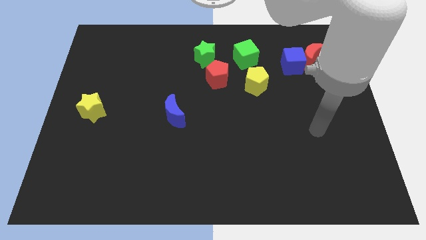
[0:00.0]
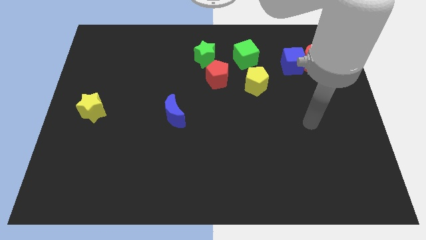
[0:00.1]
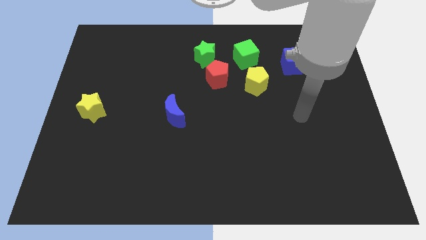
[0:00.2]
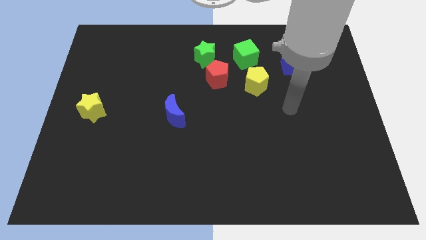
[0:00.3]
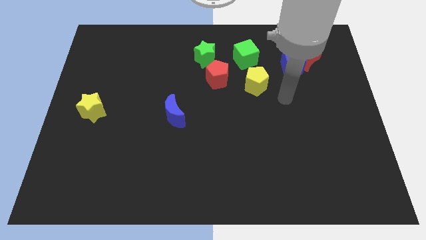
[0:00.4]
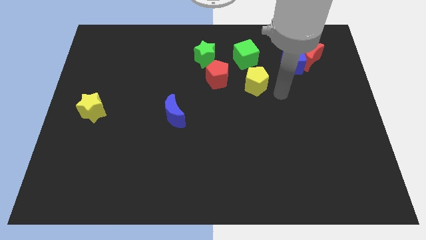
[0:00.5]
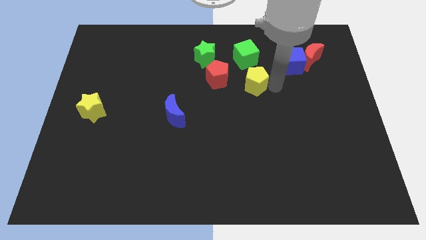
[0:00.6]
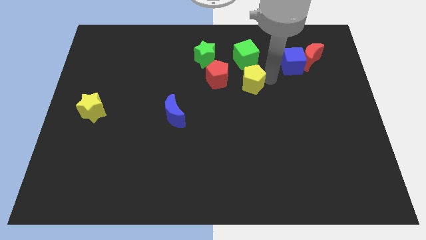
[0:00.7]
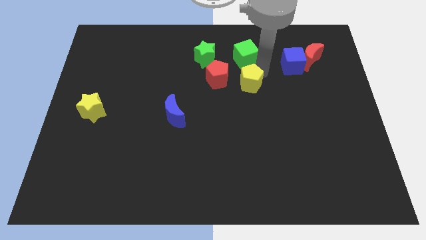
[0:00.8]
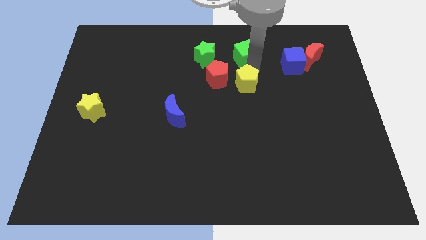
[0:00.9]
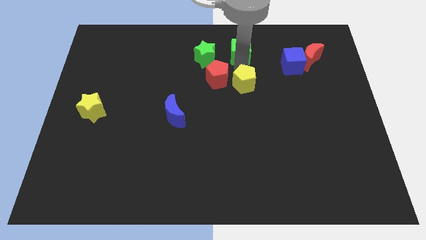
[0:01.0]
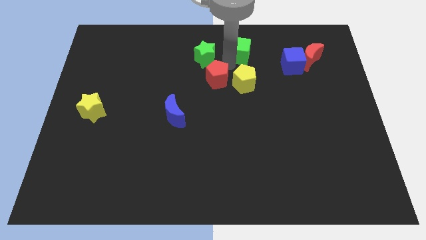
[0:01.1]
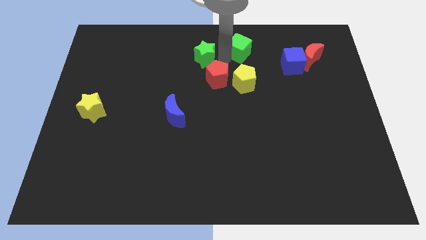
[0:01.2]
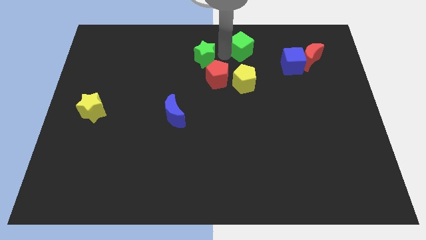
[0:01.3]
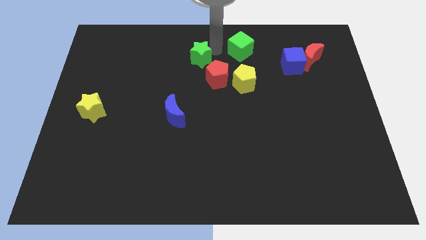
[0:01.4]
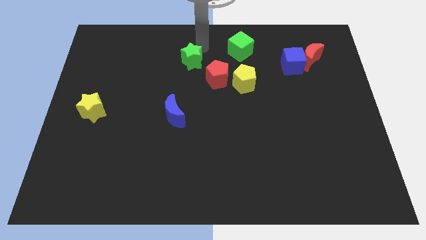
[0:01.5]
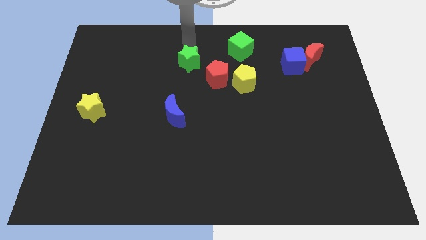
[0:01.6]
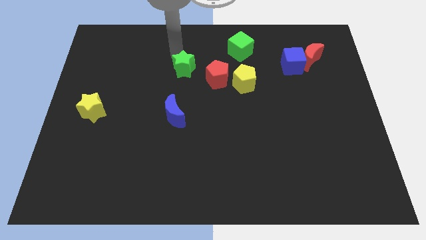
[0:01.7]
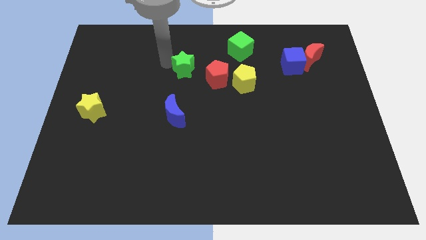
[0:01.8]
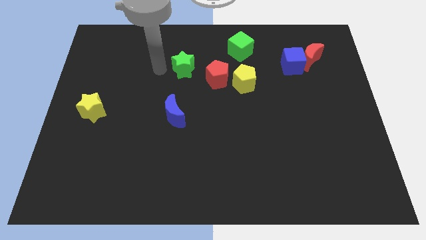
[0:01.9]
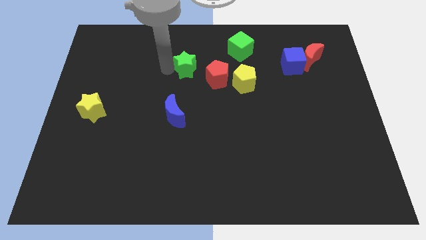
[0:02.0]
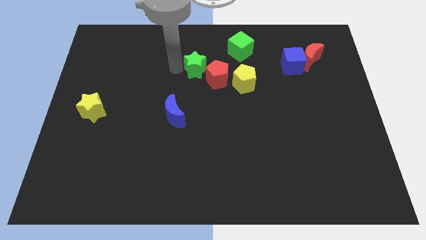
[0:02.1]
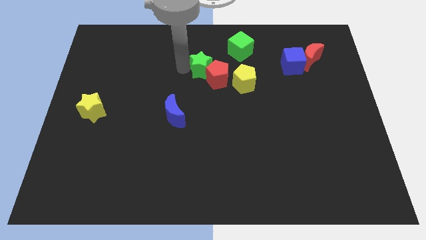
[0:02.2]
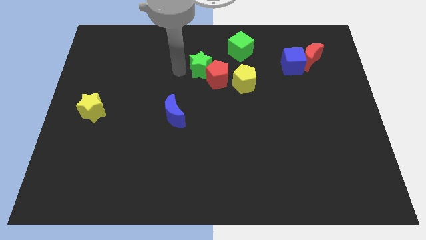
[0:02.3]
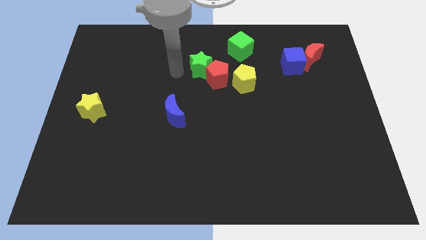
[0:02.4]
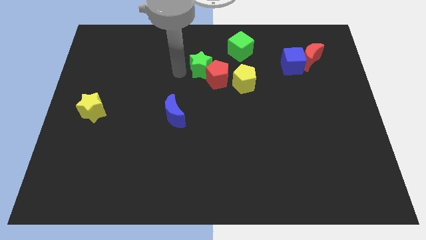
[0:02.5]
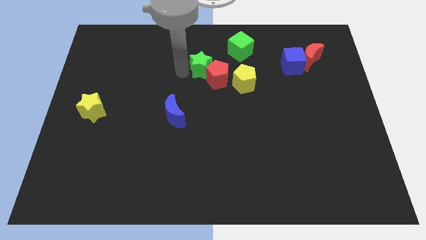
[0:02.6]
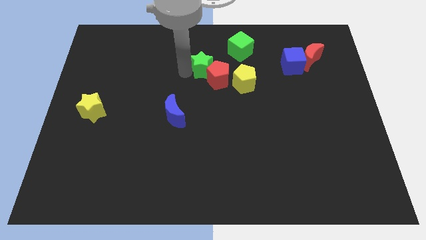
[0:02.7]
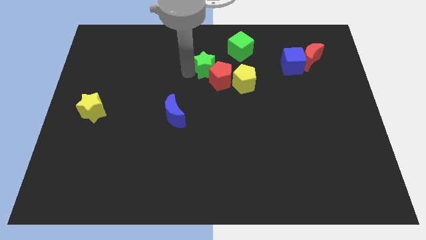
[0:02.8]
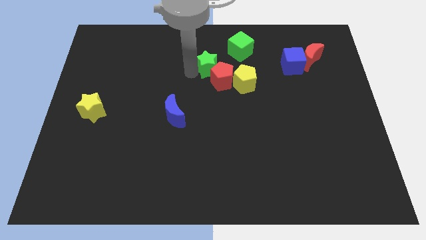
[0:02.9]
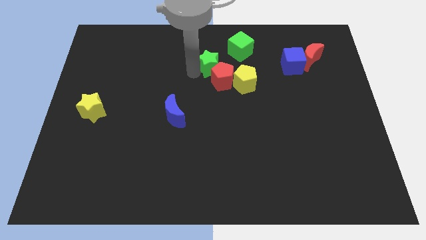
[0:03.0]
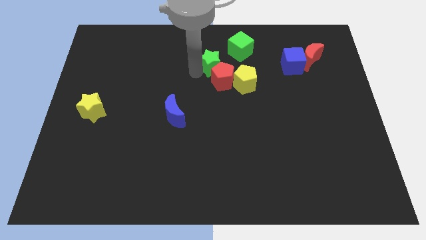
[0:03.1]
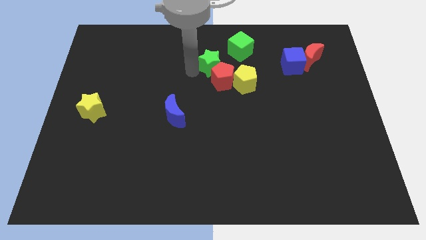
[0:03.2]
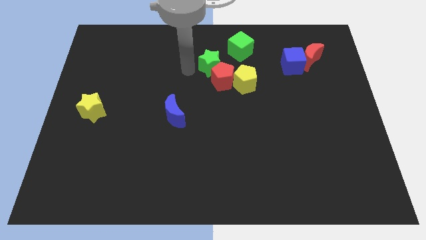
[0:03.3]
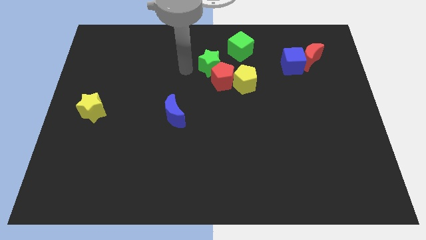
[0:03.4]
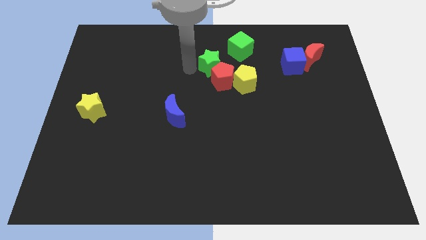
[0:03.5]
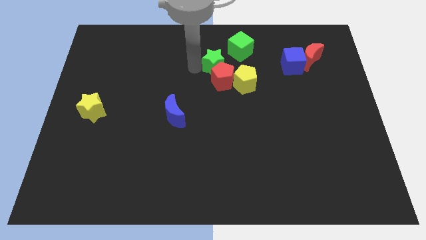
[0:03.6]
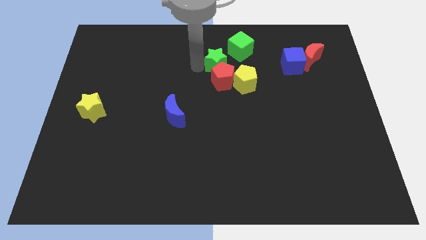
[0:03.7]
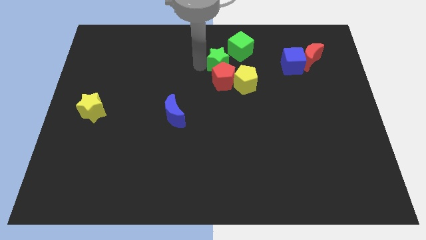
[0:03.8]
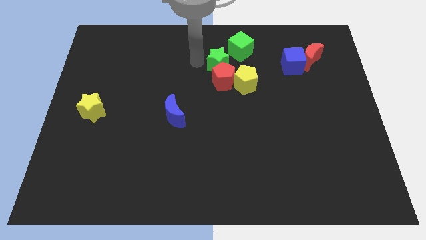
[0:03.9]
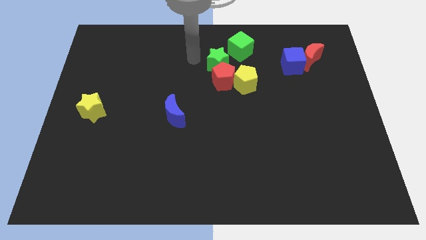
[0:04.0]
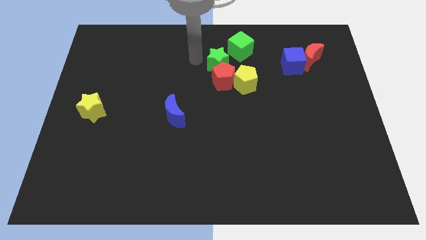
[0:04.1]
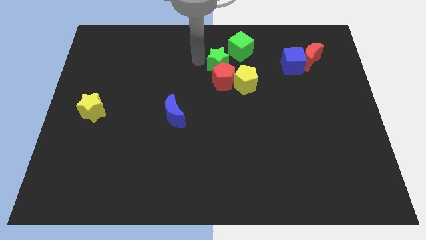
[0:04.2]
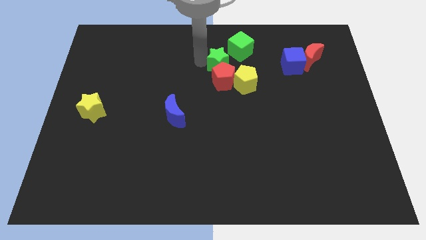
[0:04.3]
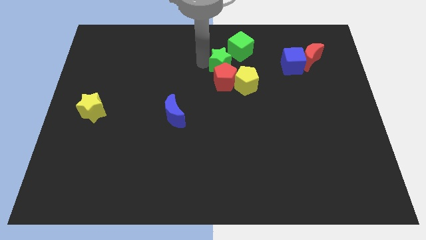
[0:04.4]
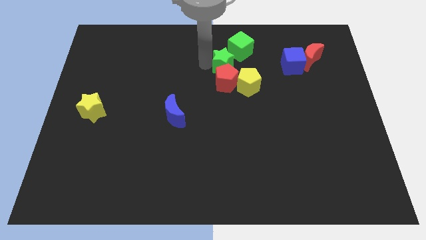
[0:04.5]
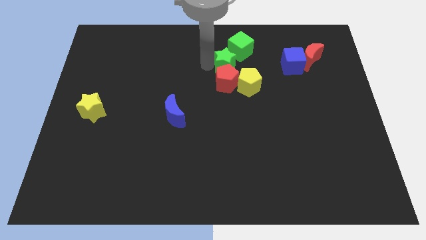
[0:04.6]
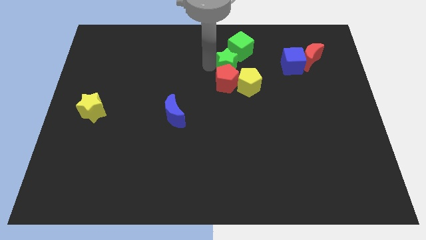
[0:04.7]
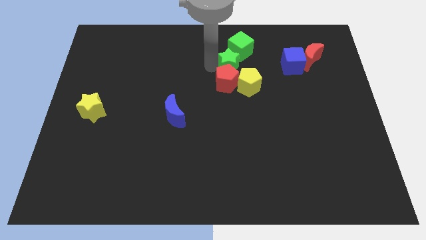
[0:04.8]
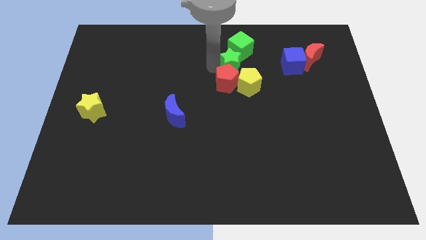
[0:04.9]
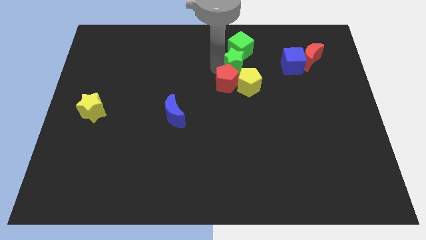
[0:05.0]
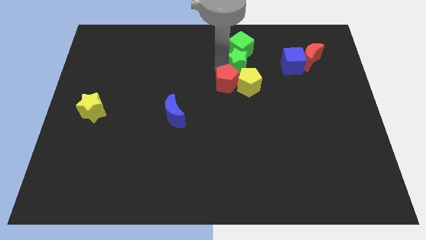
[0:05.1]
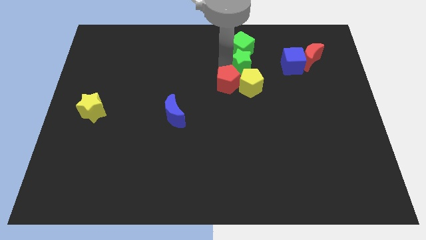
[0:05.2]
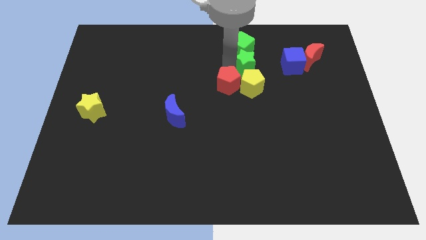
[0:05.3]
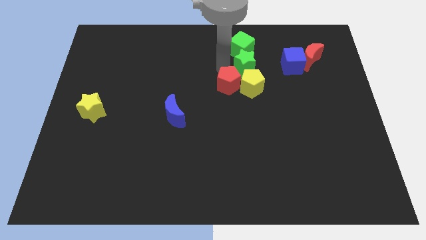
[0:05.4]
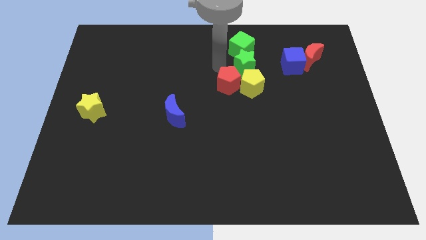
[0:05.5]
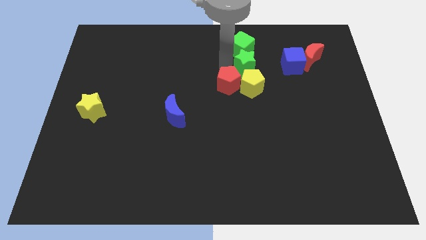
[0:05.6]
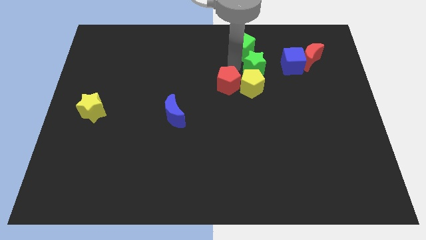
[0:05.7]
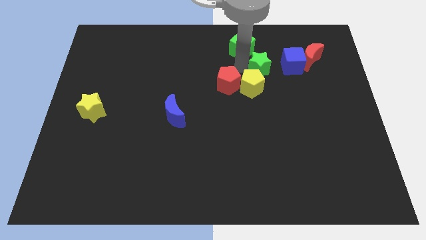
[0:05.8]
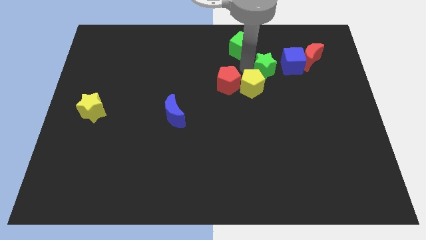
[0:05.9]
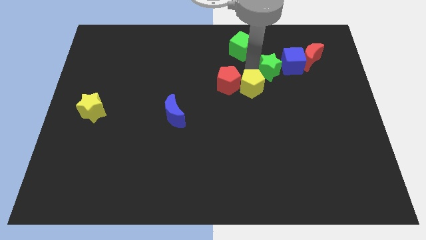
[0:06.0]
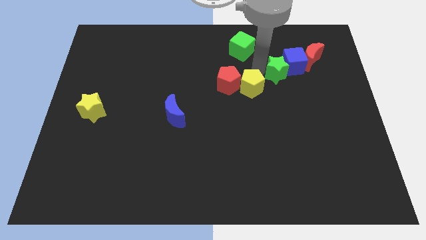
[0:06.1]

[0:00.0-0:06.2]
move the green star close to the blue cube

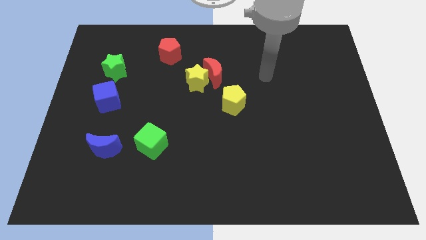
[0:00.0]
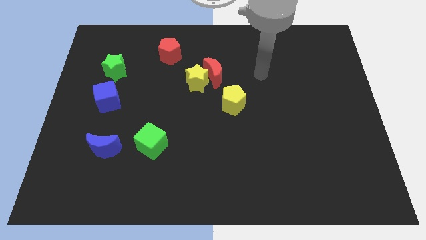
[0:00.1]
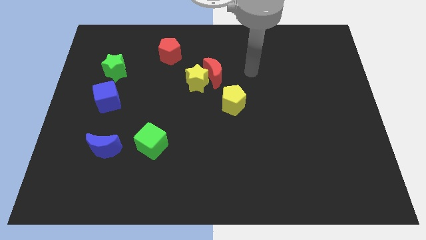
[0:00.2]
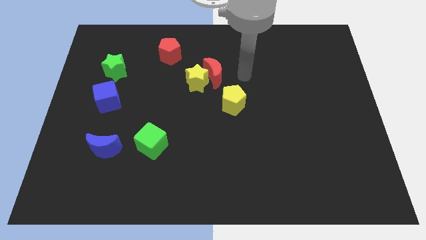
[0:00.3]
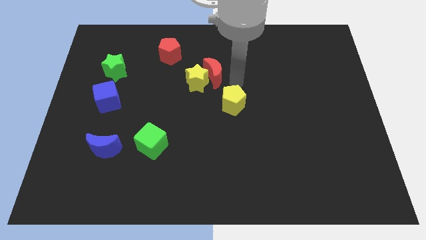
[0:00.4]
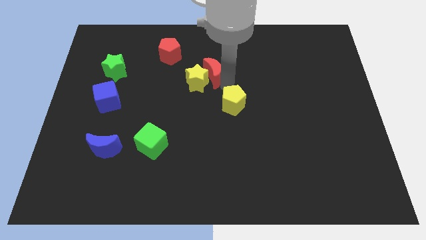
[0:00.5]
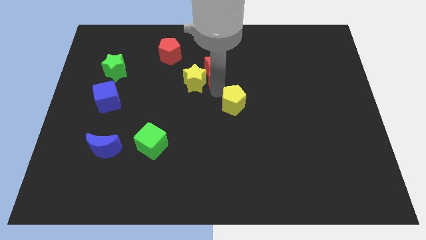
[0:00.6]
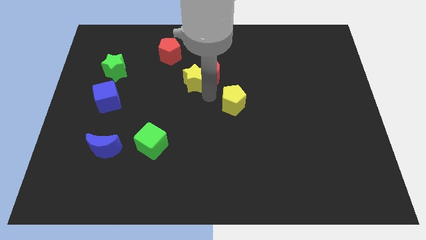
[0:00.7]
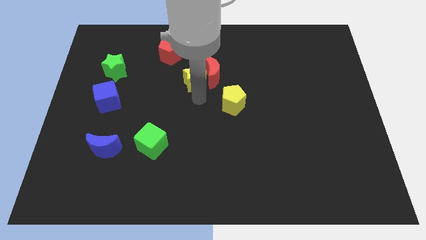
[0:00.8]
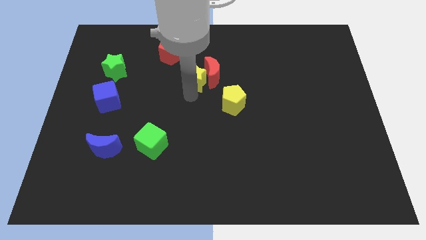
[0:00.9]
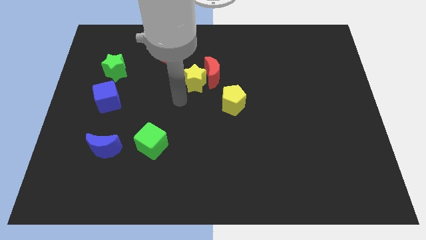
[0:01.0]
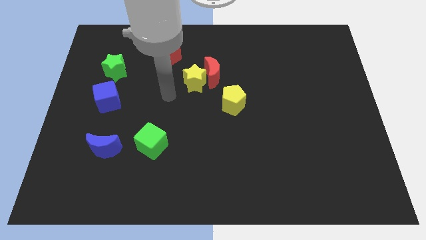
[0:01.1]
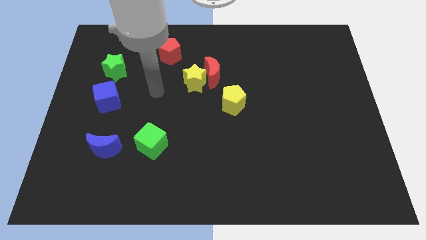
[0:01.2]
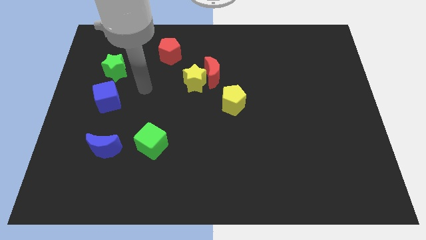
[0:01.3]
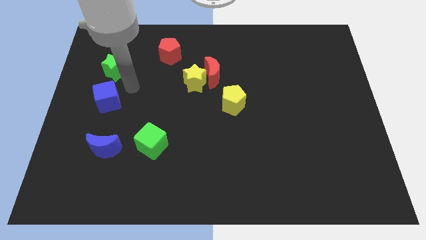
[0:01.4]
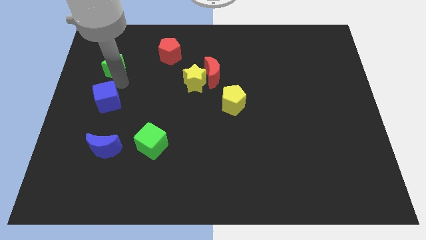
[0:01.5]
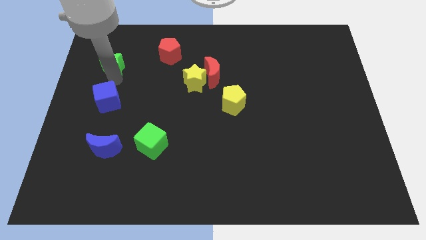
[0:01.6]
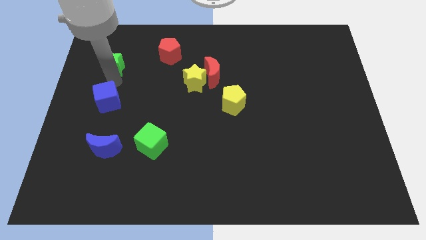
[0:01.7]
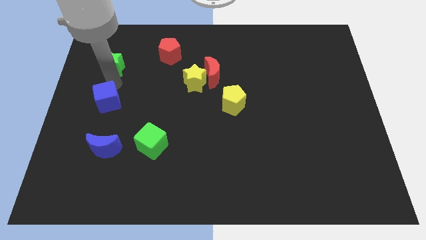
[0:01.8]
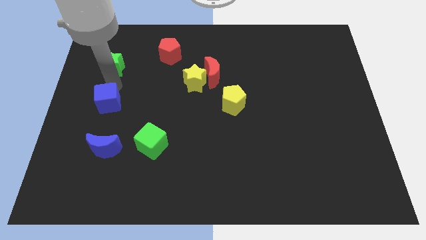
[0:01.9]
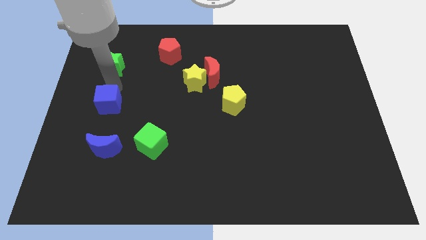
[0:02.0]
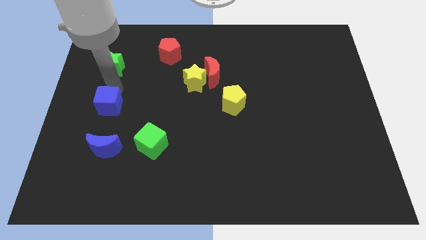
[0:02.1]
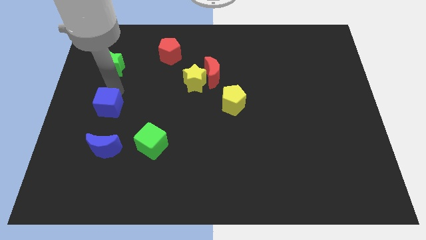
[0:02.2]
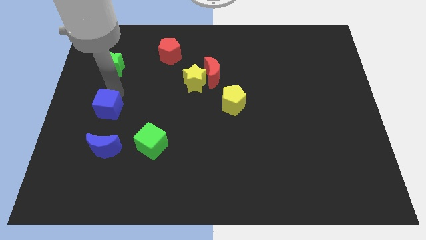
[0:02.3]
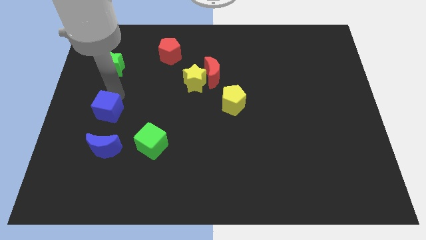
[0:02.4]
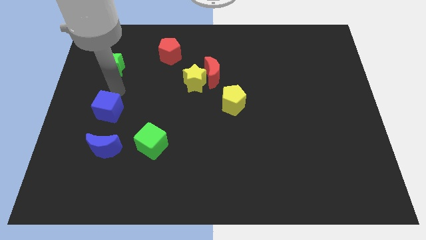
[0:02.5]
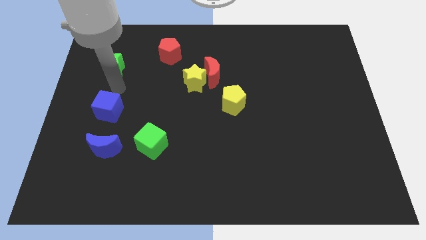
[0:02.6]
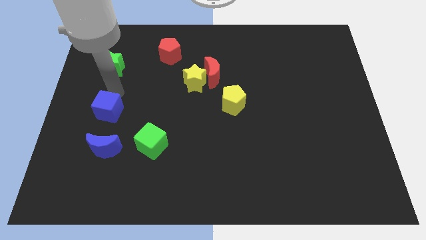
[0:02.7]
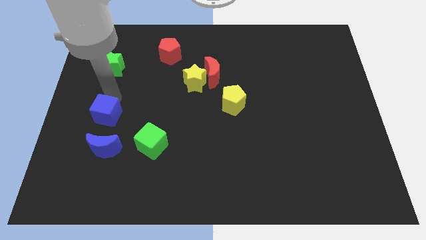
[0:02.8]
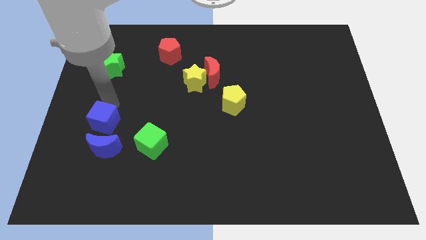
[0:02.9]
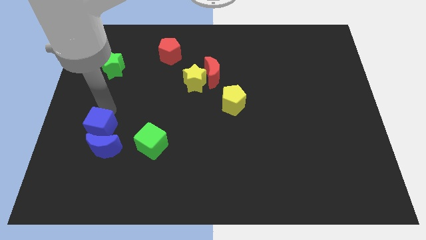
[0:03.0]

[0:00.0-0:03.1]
slide the blue cube to the blue moon
